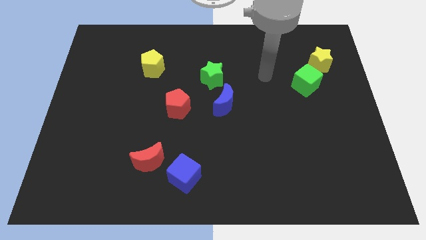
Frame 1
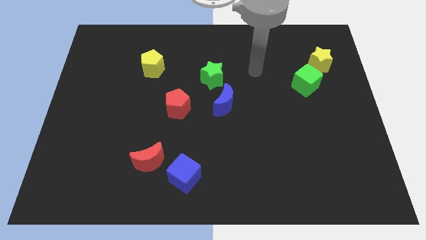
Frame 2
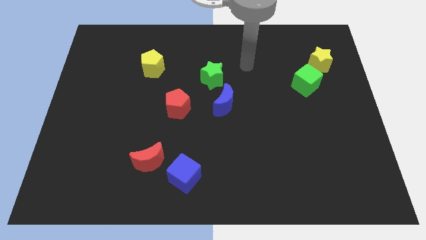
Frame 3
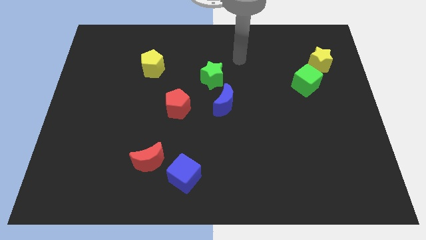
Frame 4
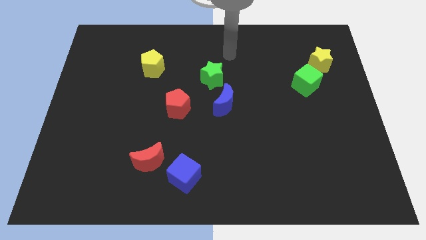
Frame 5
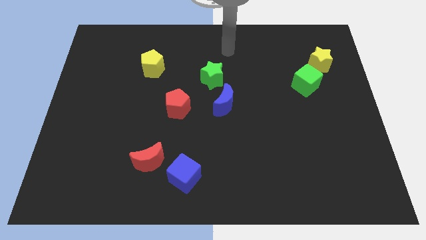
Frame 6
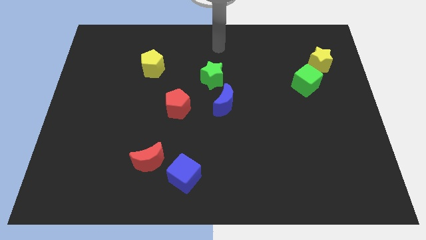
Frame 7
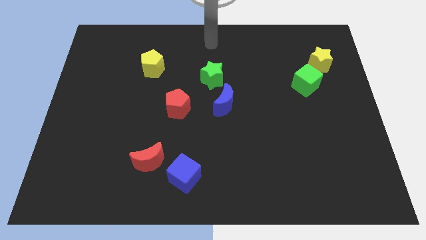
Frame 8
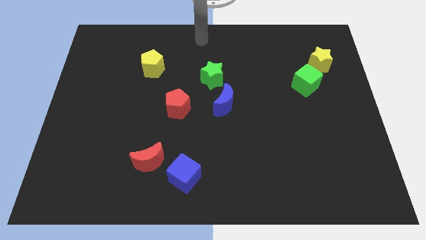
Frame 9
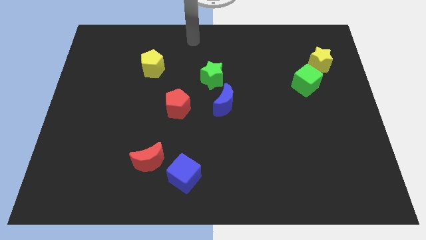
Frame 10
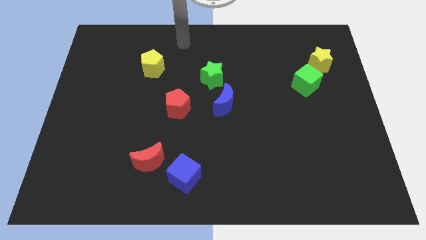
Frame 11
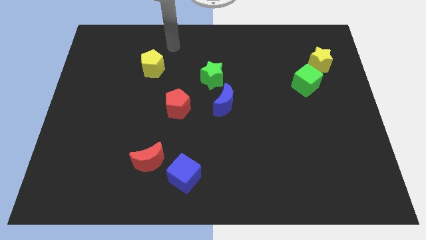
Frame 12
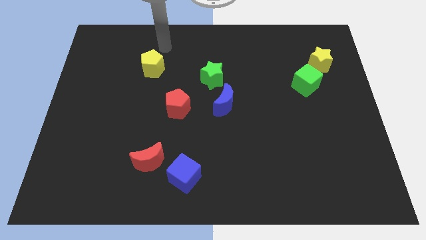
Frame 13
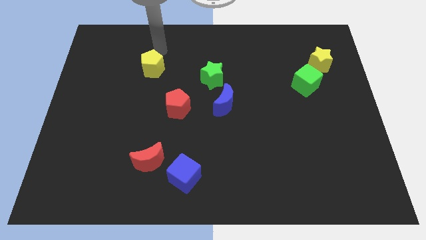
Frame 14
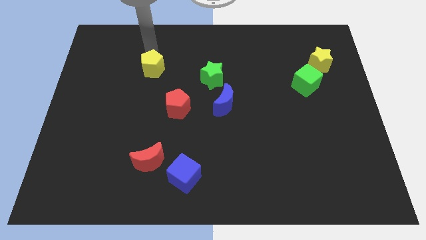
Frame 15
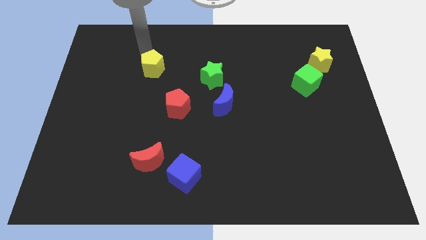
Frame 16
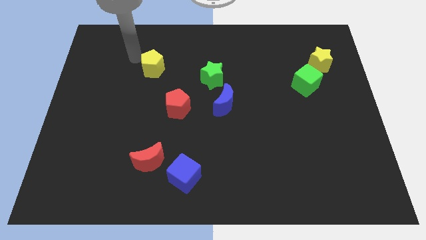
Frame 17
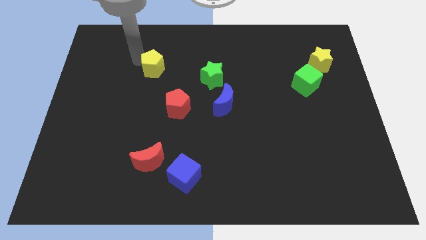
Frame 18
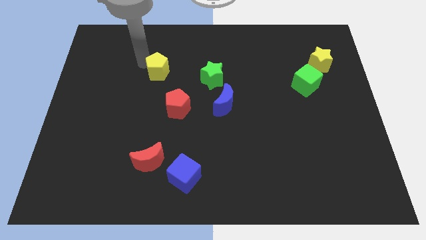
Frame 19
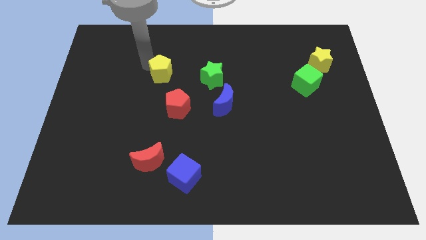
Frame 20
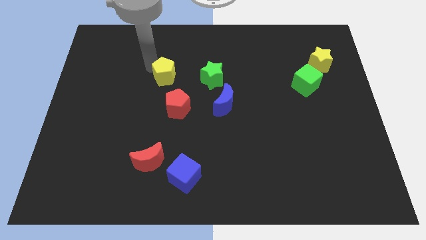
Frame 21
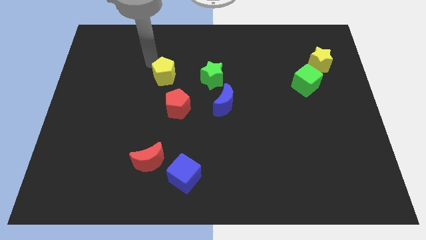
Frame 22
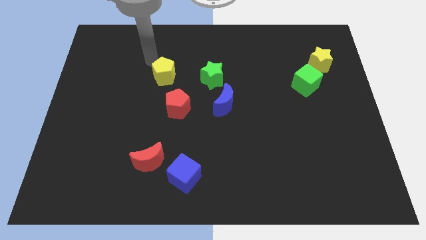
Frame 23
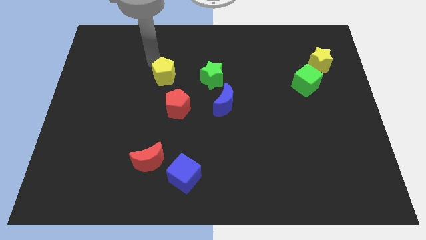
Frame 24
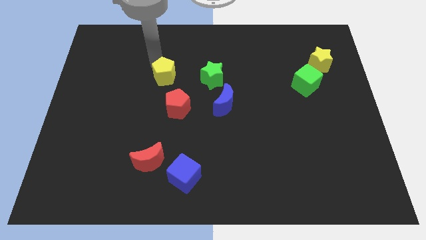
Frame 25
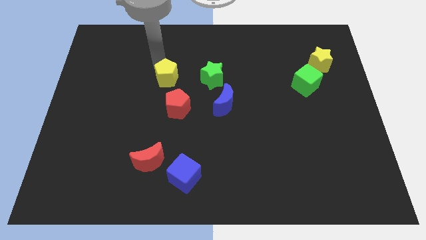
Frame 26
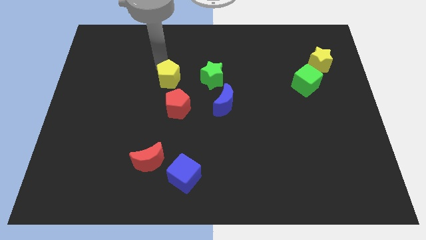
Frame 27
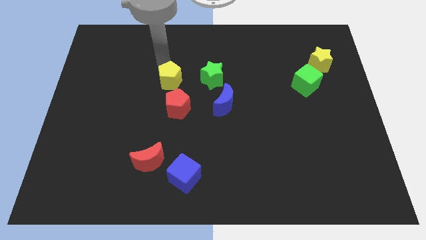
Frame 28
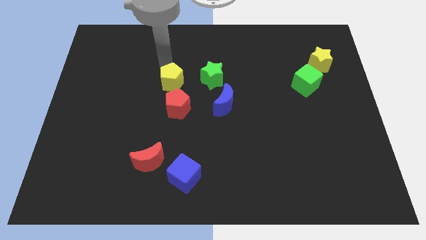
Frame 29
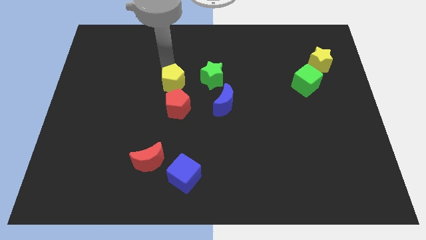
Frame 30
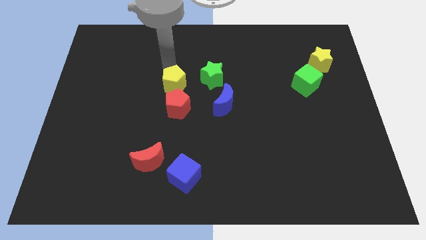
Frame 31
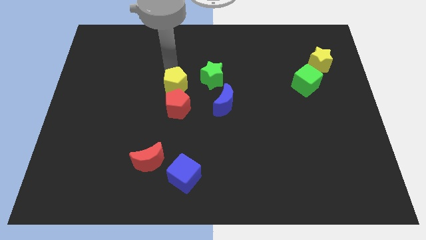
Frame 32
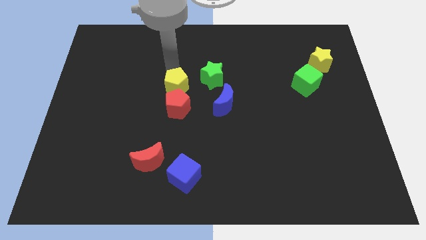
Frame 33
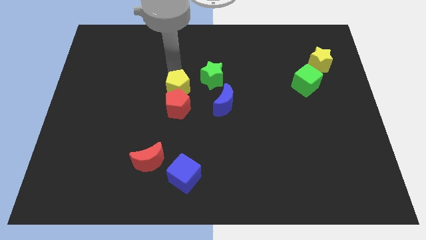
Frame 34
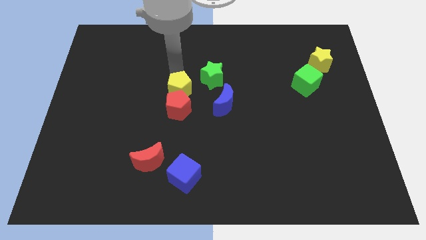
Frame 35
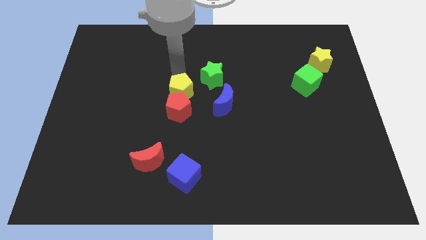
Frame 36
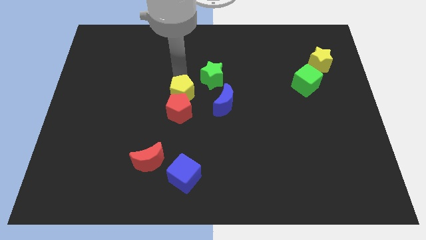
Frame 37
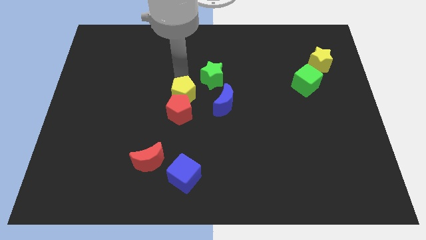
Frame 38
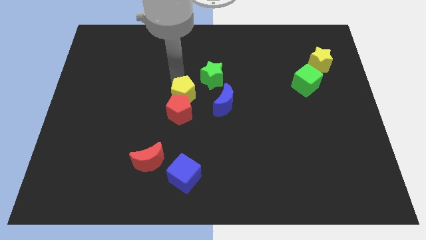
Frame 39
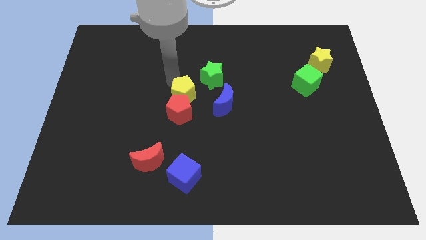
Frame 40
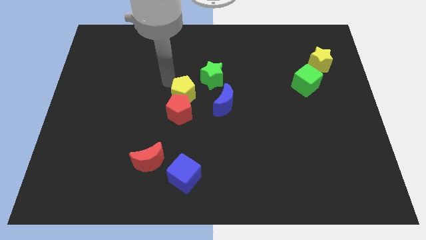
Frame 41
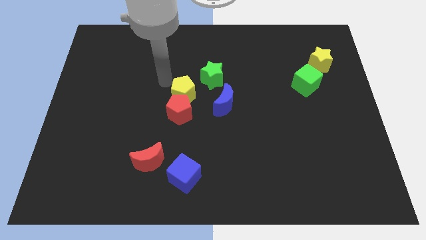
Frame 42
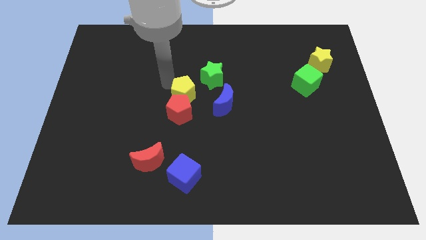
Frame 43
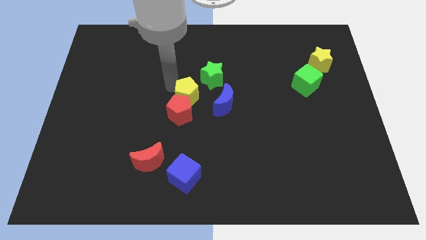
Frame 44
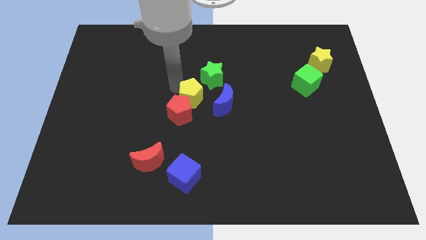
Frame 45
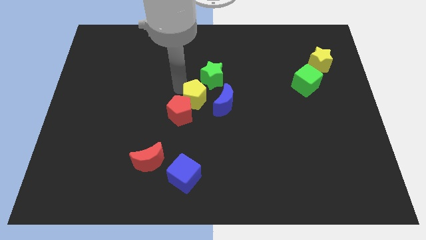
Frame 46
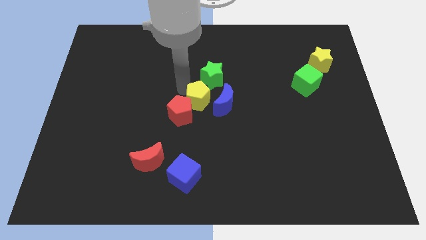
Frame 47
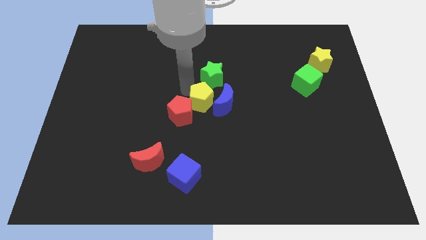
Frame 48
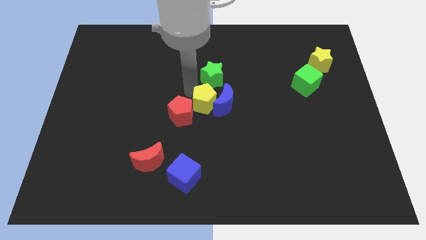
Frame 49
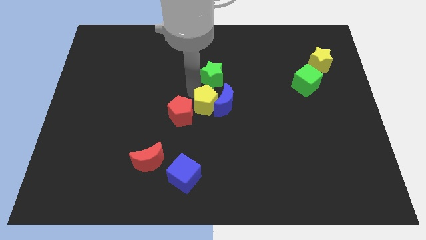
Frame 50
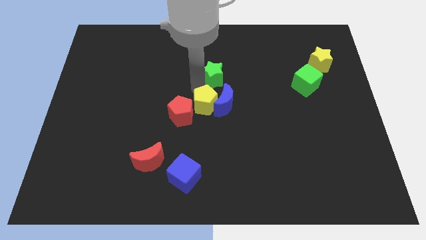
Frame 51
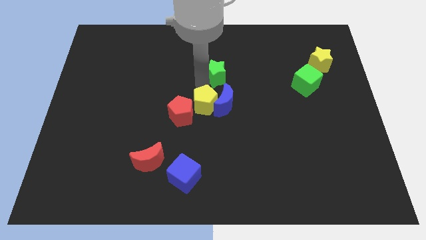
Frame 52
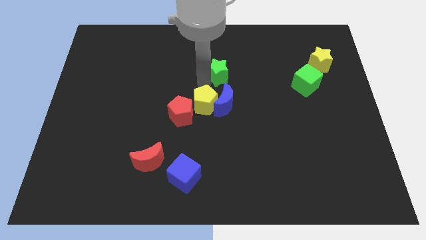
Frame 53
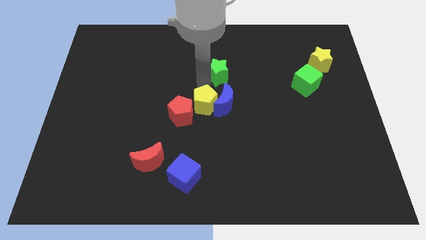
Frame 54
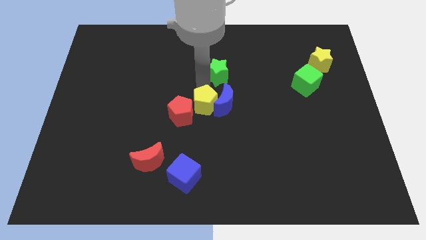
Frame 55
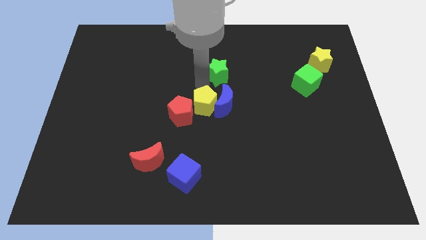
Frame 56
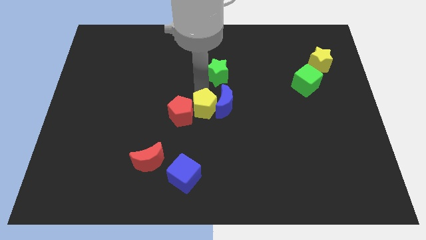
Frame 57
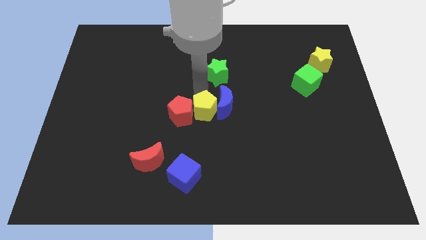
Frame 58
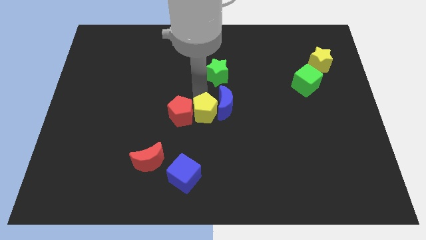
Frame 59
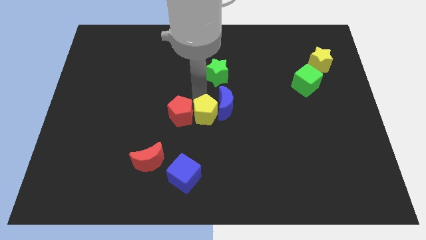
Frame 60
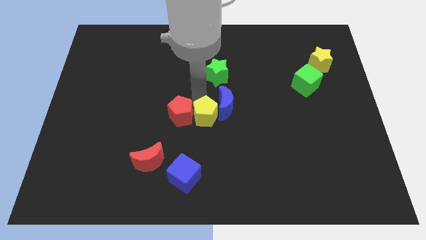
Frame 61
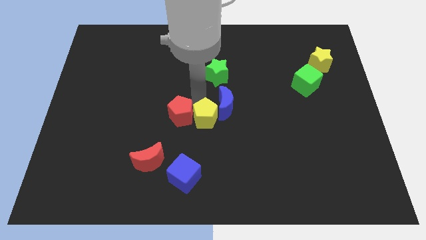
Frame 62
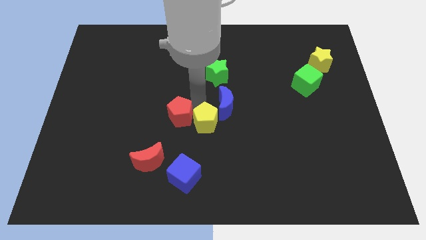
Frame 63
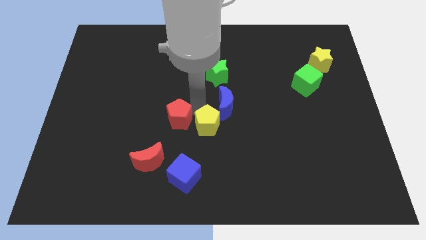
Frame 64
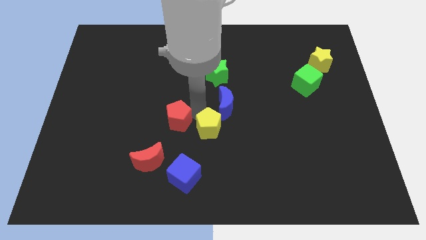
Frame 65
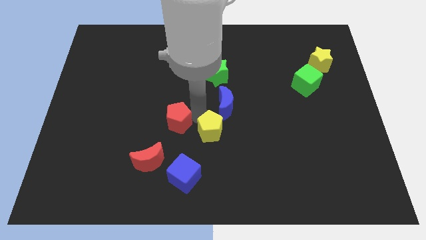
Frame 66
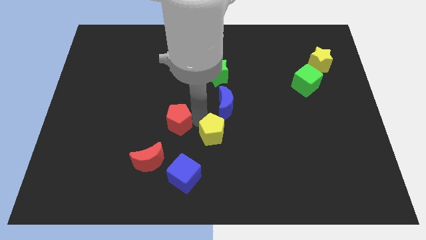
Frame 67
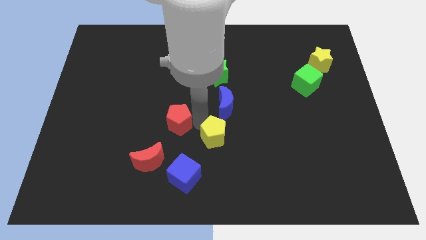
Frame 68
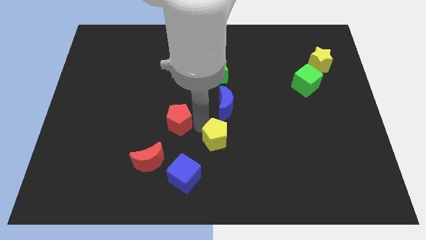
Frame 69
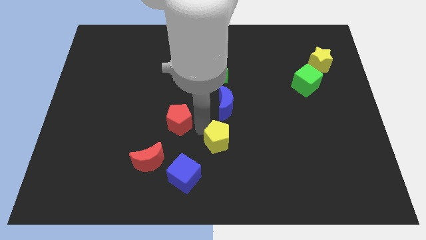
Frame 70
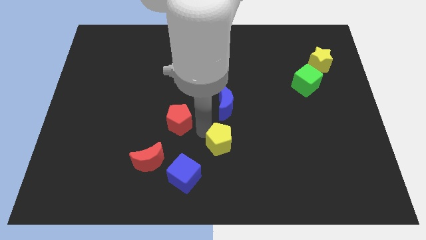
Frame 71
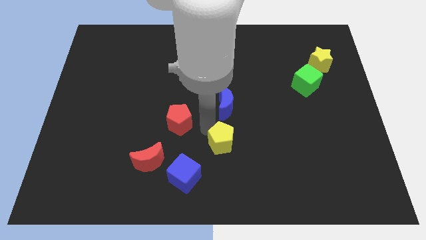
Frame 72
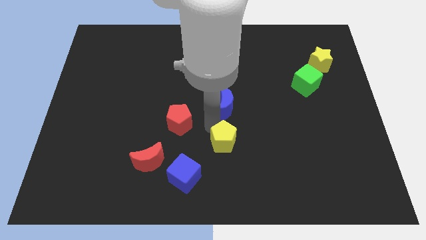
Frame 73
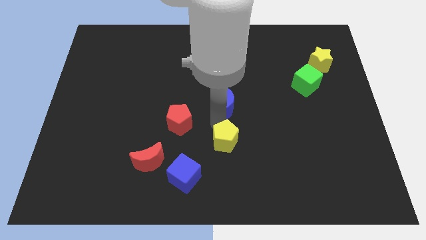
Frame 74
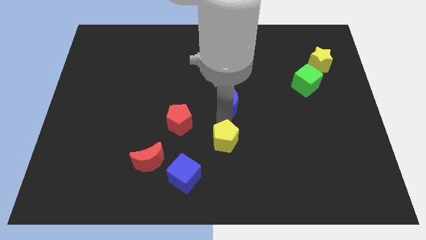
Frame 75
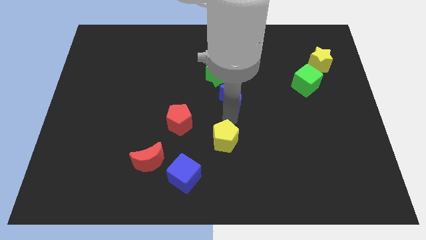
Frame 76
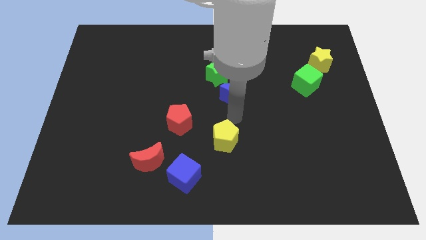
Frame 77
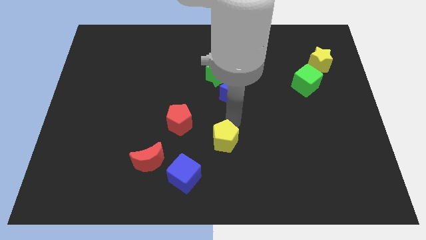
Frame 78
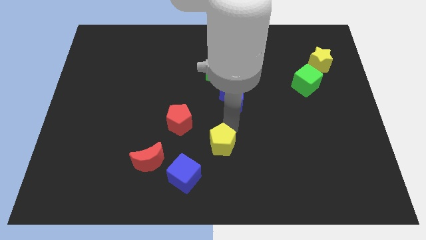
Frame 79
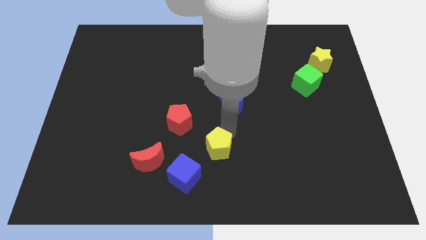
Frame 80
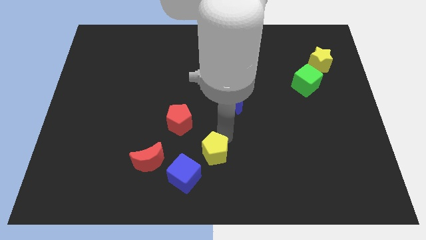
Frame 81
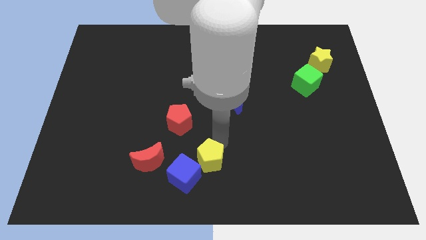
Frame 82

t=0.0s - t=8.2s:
put the yellow pentagon to the bottom
